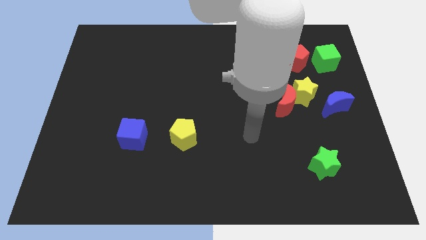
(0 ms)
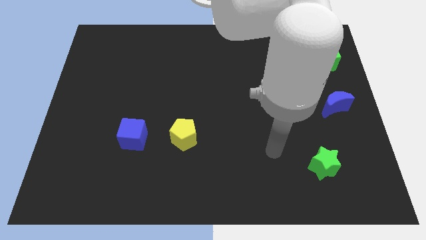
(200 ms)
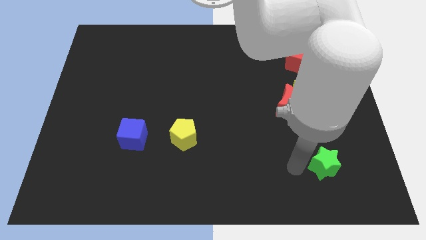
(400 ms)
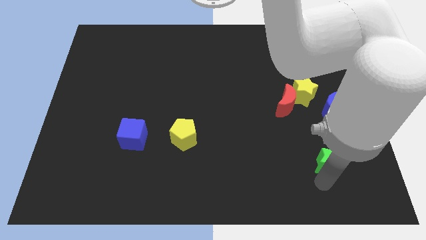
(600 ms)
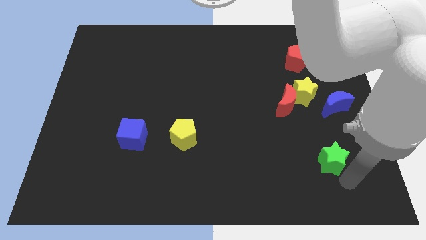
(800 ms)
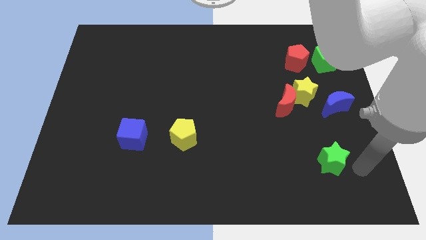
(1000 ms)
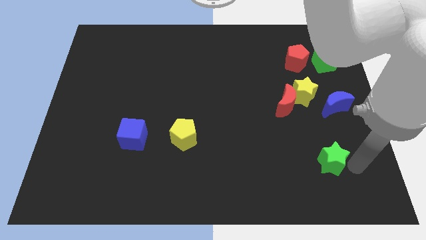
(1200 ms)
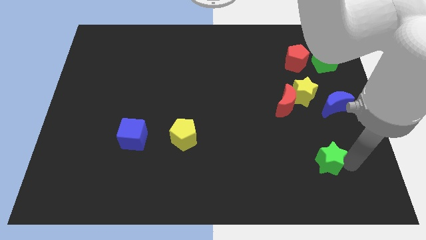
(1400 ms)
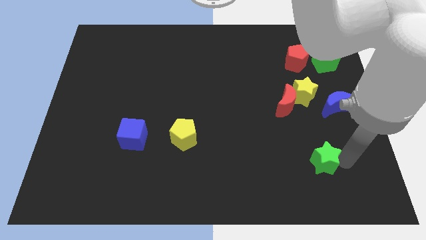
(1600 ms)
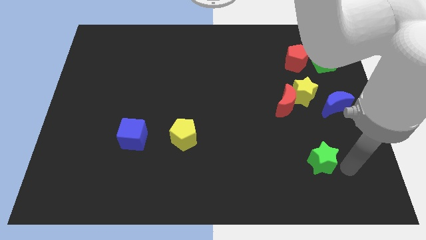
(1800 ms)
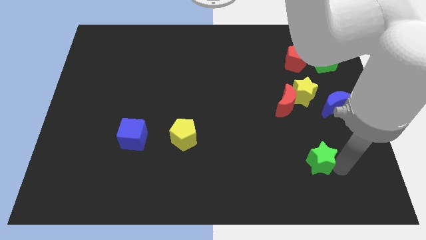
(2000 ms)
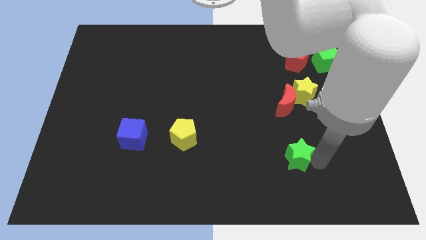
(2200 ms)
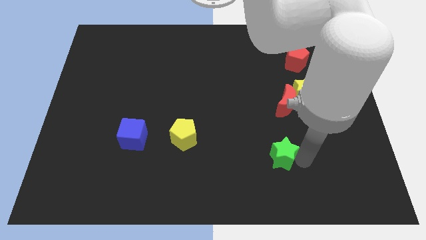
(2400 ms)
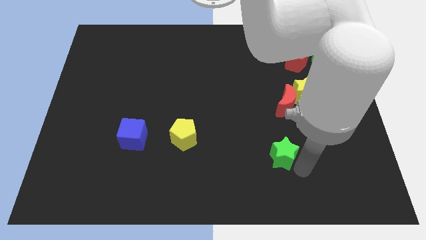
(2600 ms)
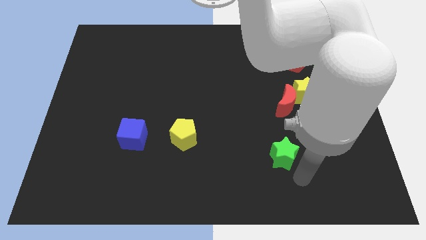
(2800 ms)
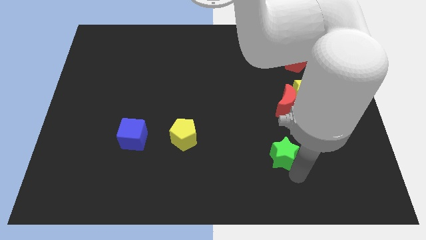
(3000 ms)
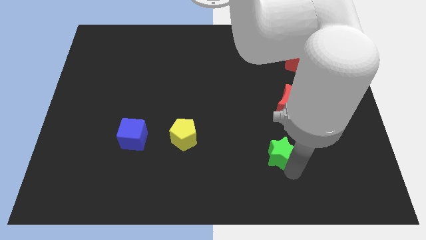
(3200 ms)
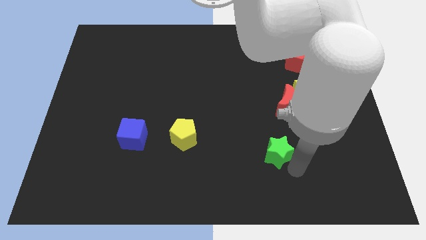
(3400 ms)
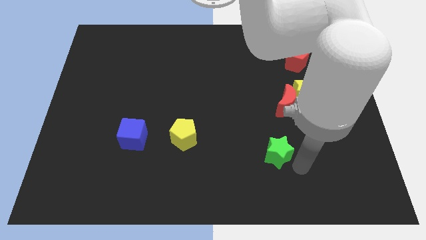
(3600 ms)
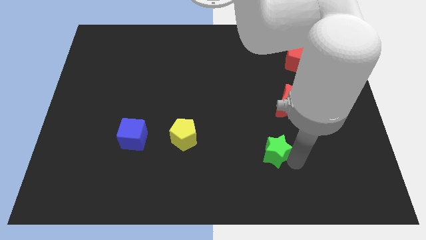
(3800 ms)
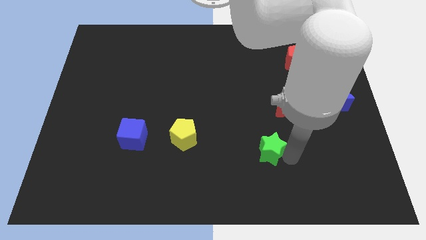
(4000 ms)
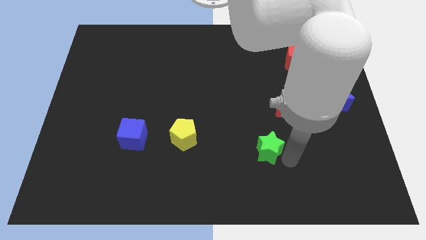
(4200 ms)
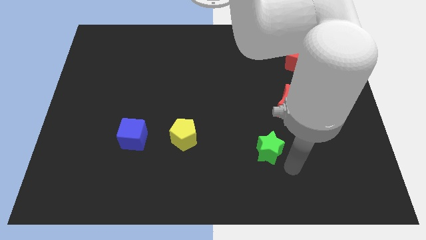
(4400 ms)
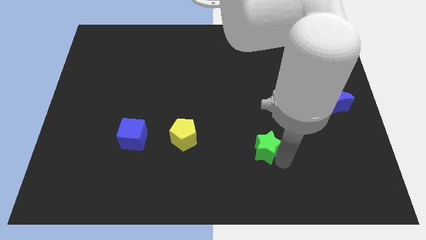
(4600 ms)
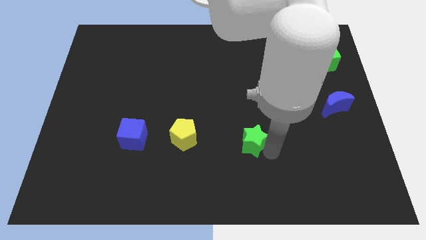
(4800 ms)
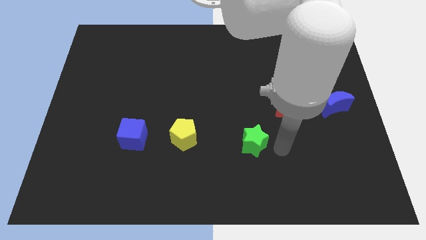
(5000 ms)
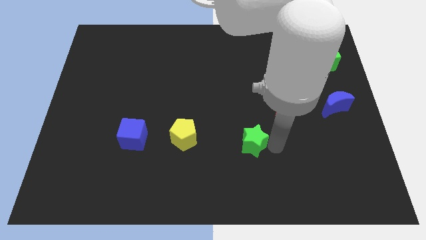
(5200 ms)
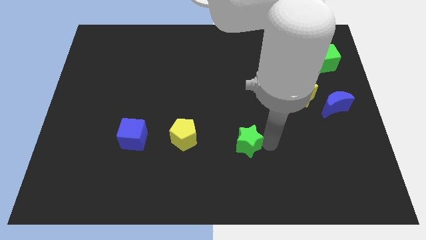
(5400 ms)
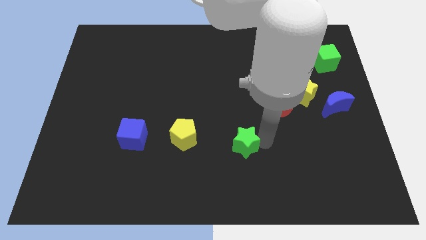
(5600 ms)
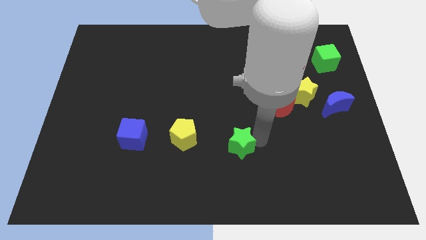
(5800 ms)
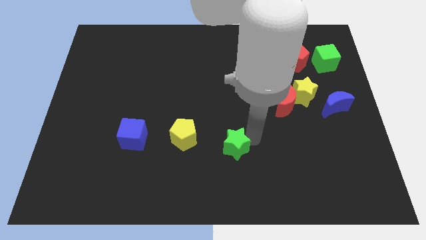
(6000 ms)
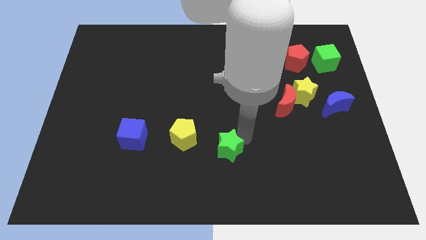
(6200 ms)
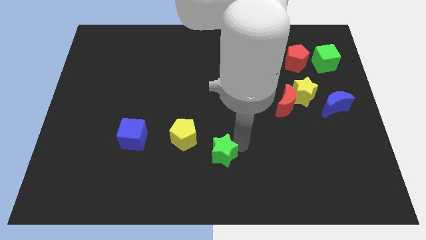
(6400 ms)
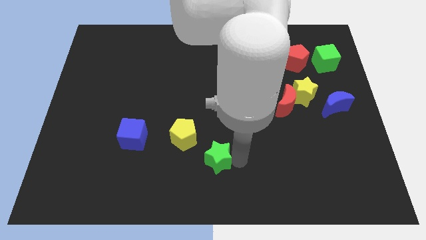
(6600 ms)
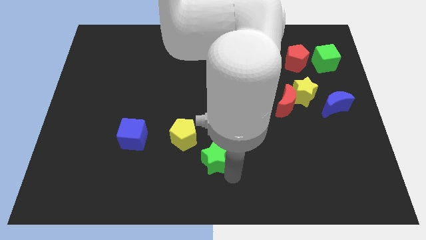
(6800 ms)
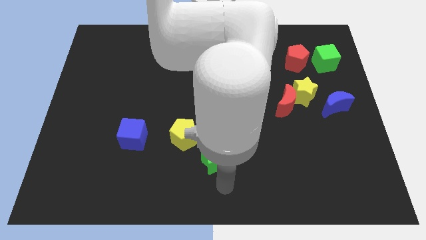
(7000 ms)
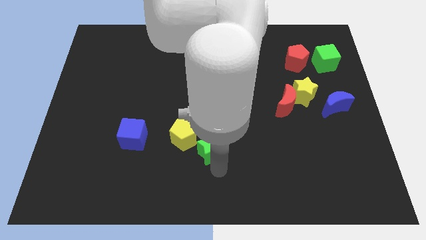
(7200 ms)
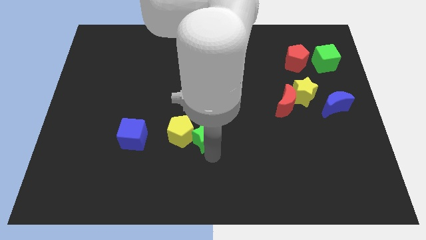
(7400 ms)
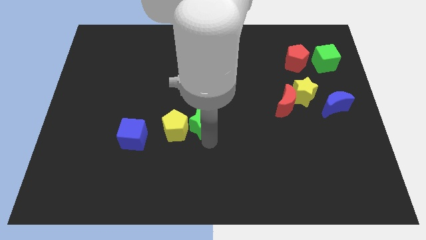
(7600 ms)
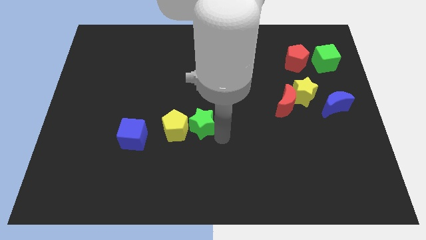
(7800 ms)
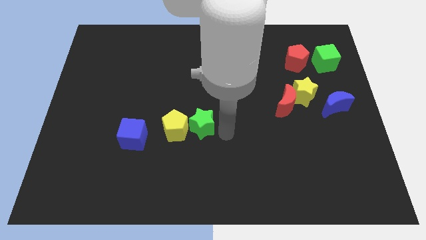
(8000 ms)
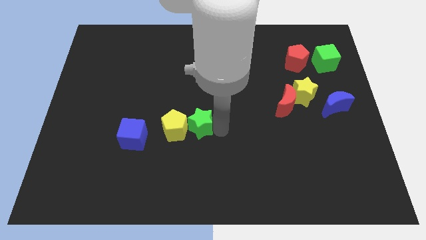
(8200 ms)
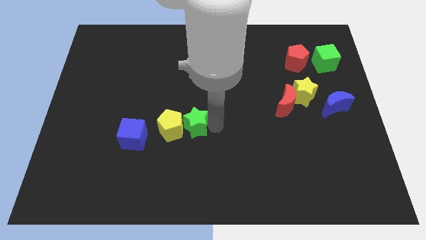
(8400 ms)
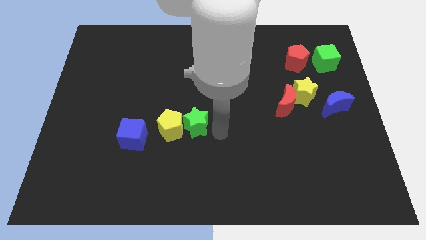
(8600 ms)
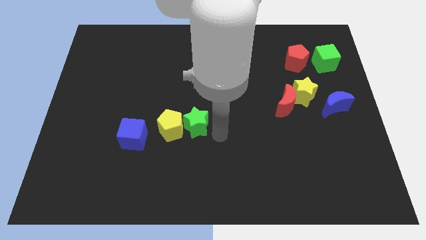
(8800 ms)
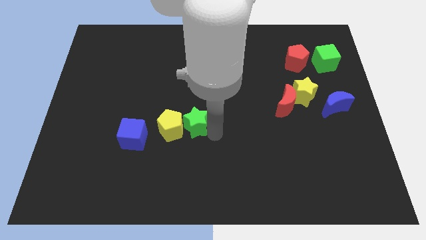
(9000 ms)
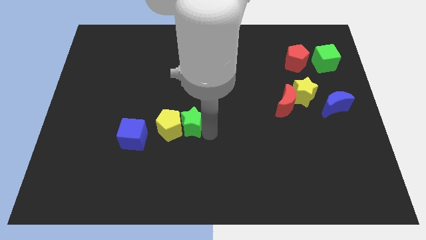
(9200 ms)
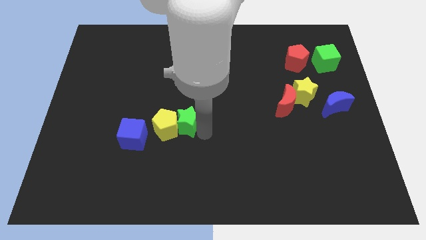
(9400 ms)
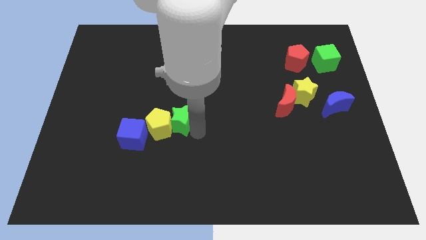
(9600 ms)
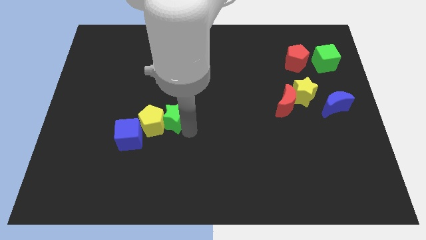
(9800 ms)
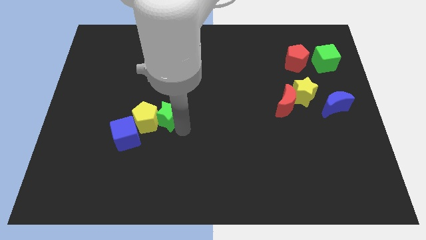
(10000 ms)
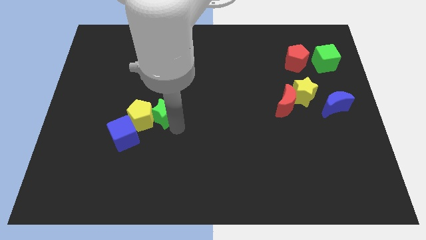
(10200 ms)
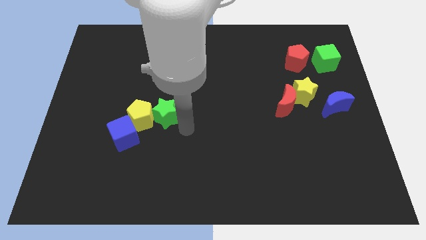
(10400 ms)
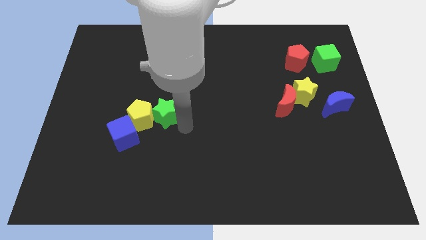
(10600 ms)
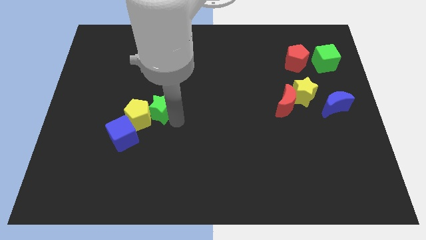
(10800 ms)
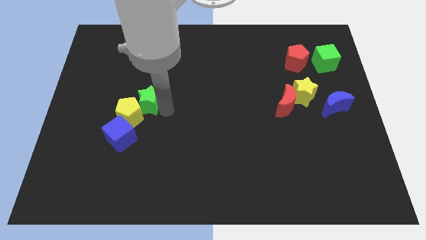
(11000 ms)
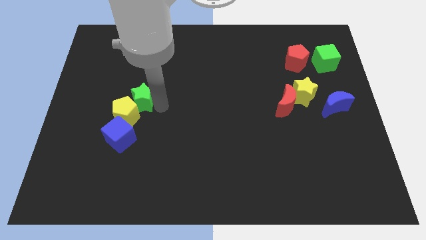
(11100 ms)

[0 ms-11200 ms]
move the green star above the blue cube

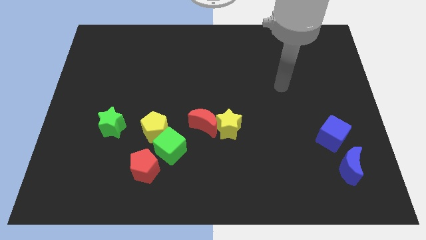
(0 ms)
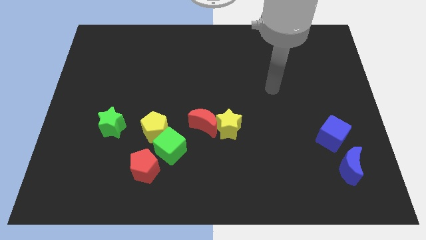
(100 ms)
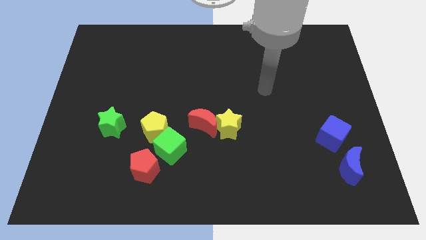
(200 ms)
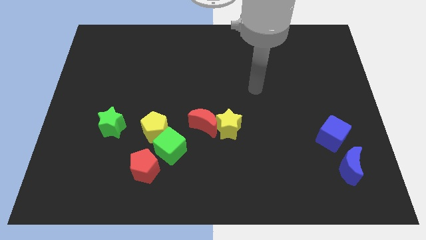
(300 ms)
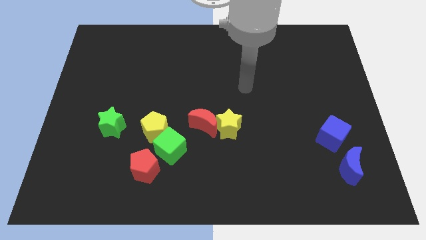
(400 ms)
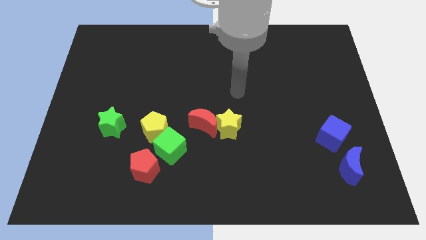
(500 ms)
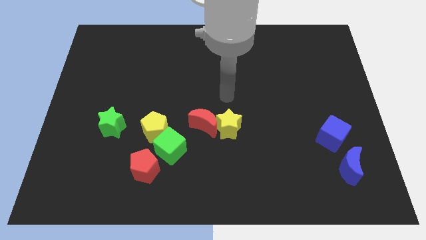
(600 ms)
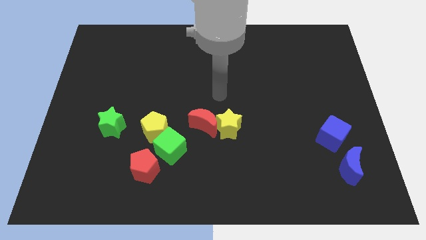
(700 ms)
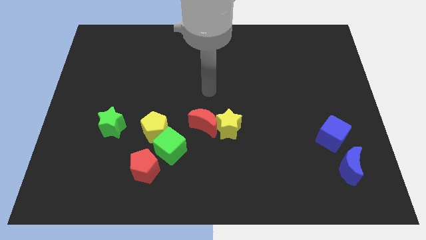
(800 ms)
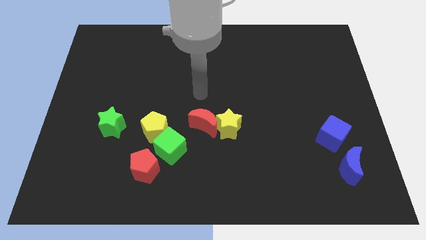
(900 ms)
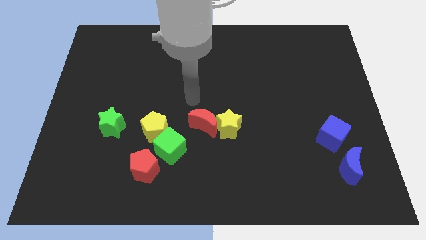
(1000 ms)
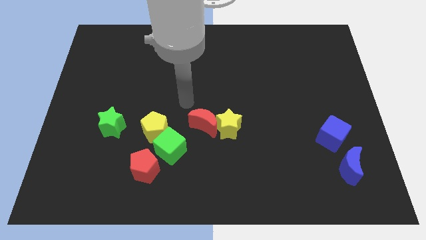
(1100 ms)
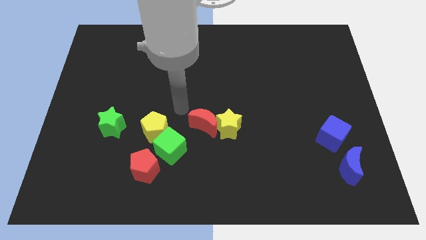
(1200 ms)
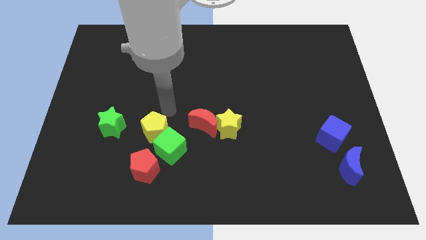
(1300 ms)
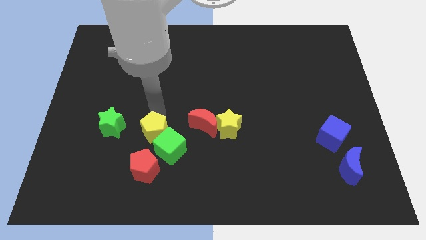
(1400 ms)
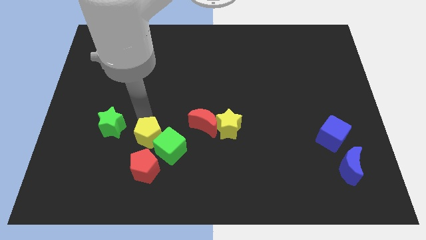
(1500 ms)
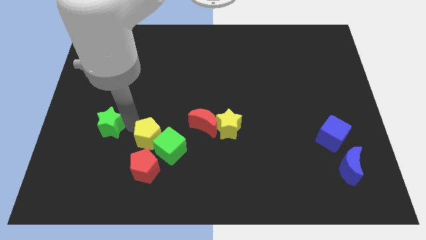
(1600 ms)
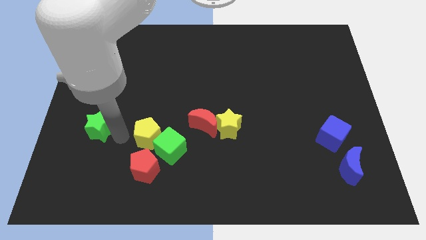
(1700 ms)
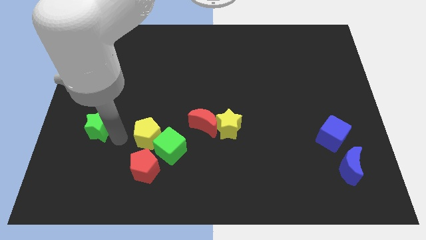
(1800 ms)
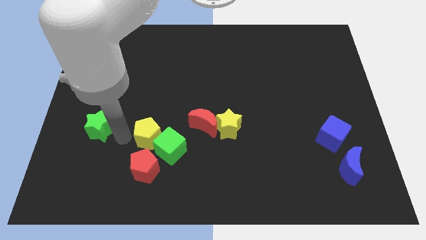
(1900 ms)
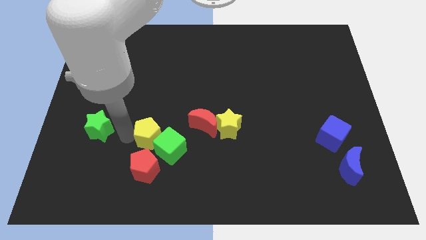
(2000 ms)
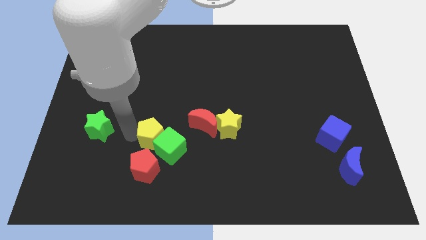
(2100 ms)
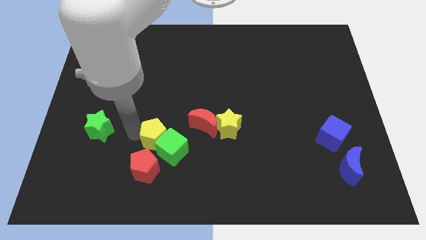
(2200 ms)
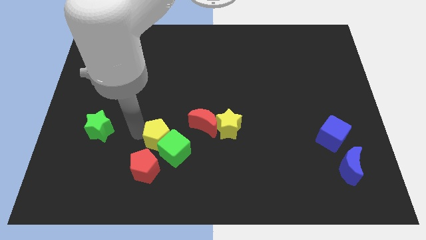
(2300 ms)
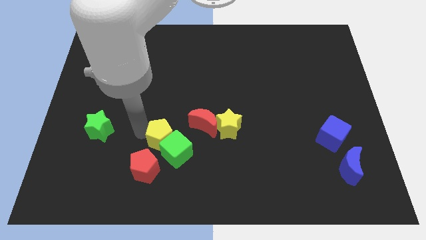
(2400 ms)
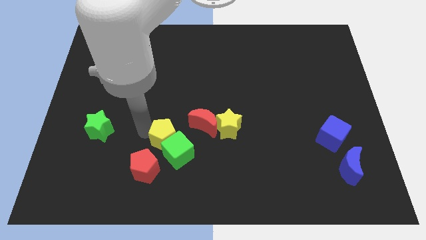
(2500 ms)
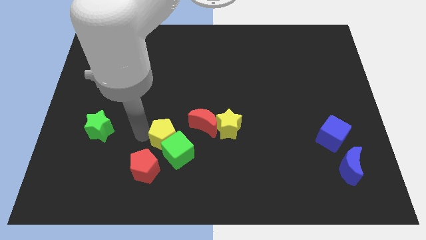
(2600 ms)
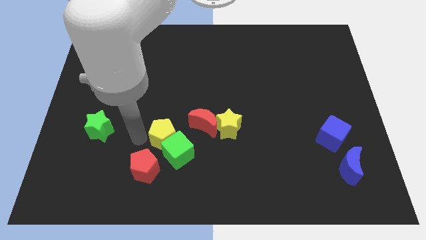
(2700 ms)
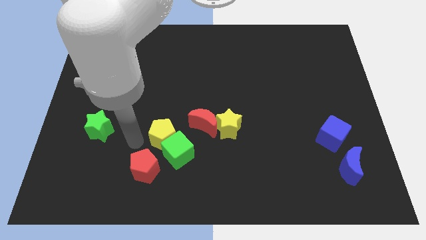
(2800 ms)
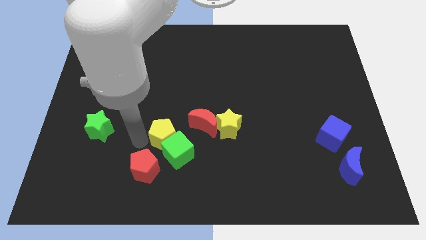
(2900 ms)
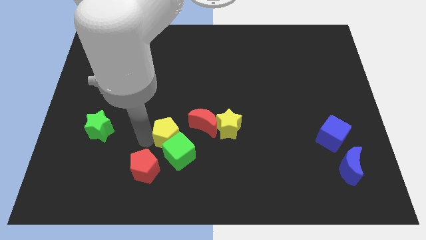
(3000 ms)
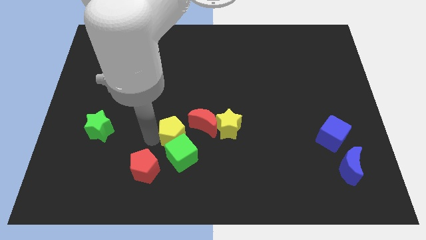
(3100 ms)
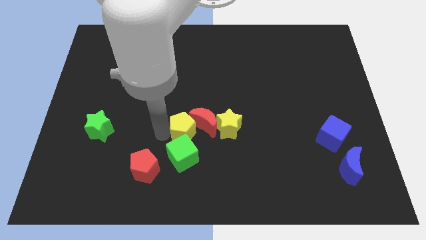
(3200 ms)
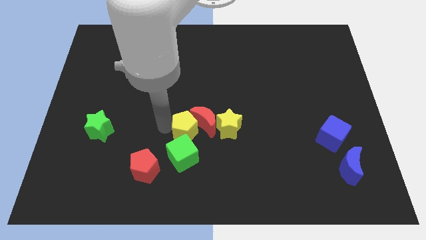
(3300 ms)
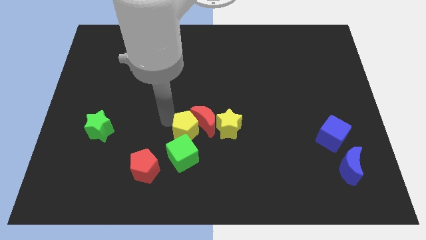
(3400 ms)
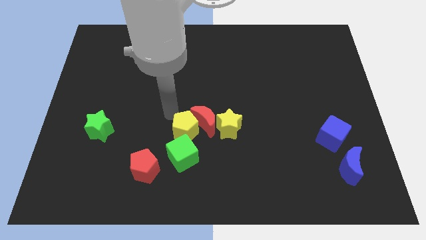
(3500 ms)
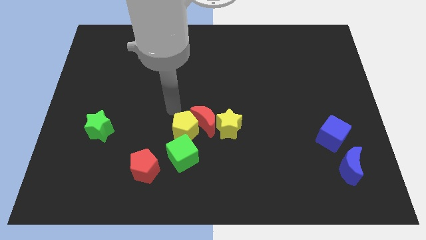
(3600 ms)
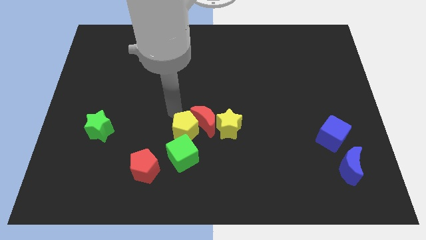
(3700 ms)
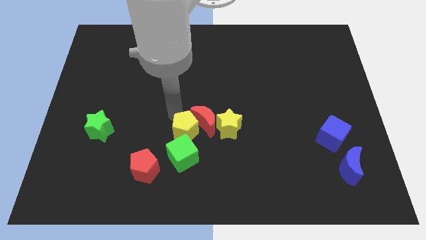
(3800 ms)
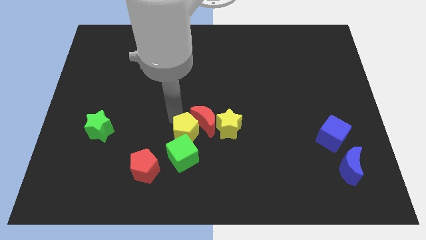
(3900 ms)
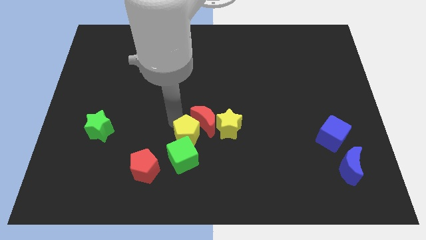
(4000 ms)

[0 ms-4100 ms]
put the yellow pentagon to the bottom side of the red moon
